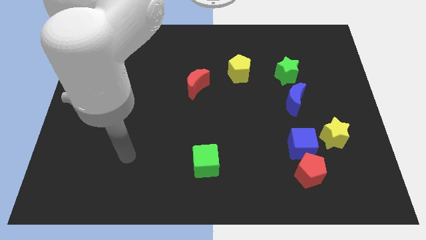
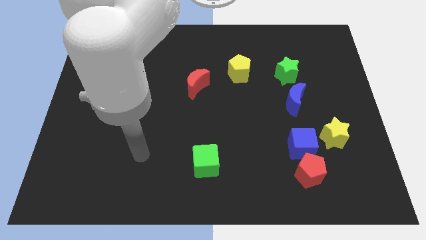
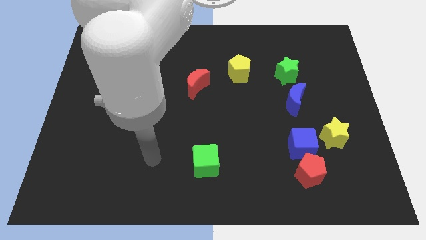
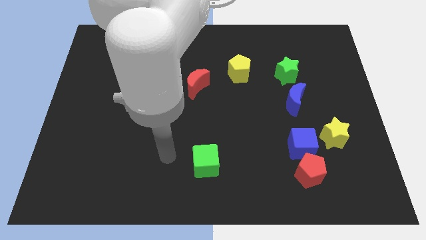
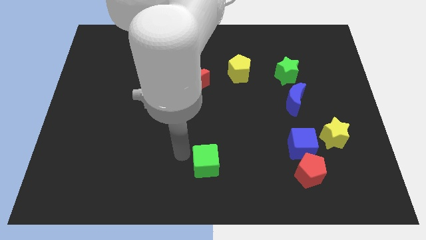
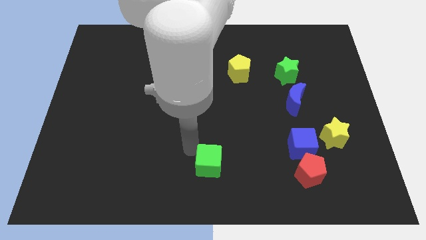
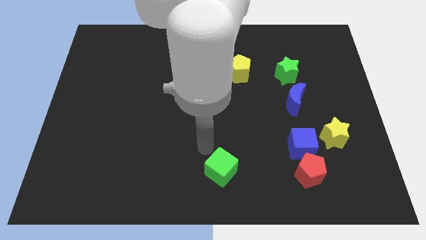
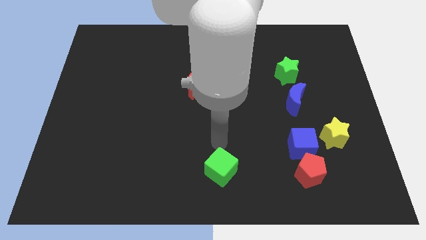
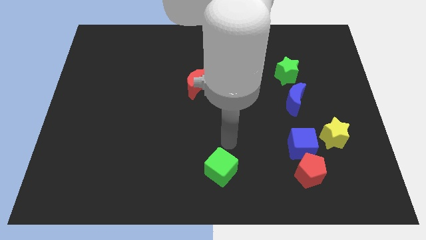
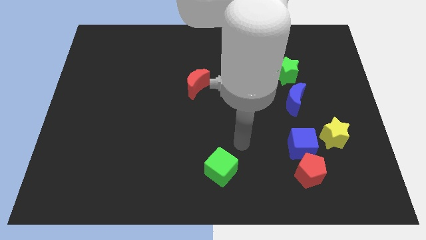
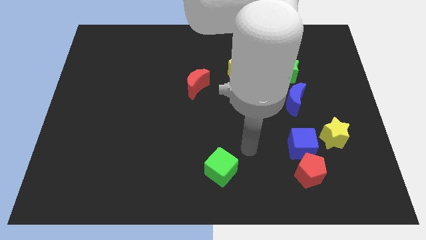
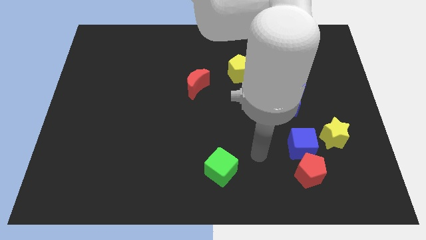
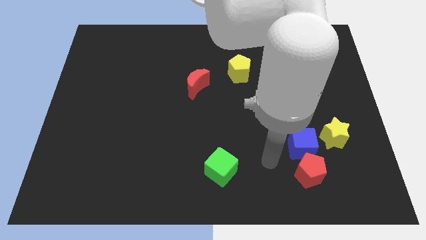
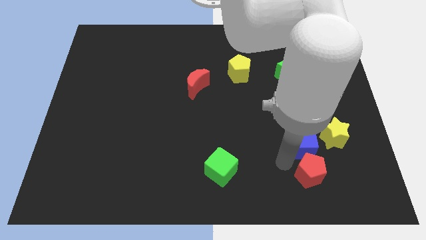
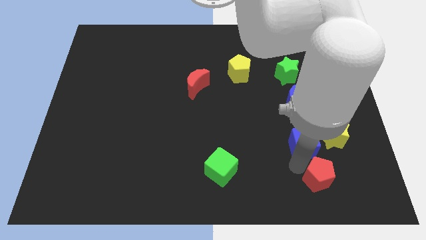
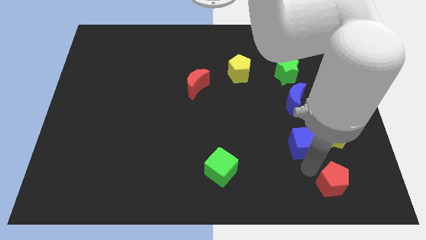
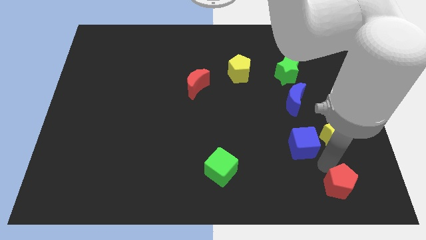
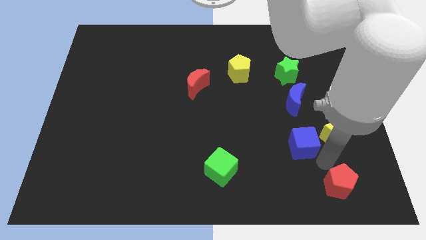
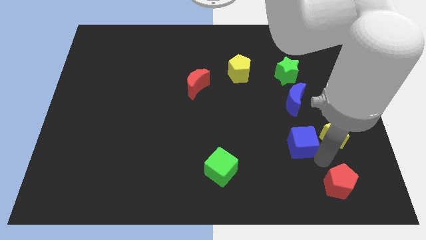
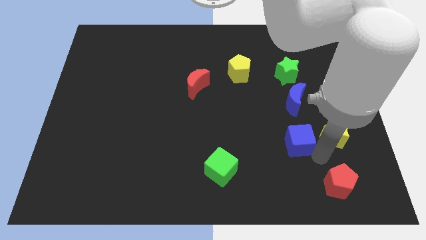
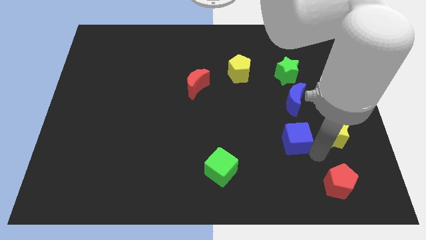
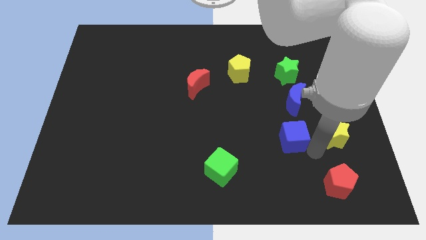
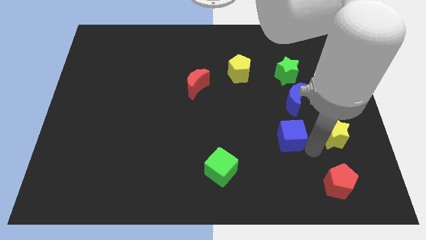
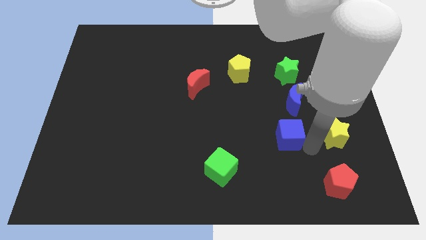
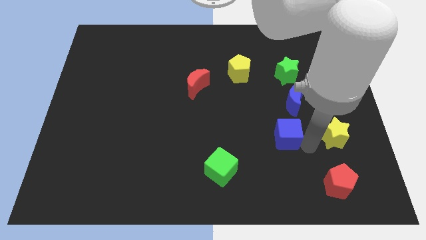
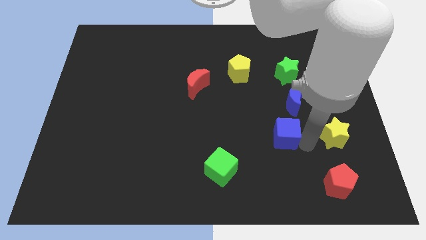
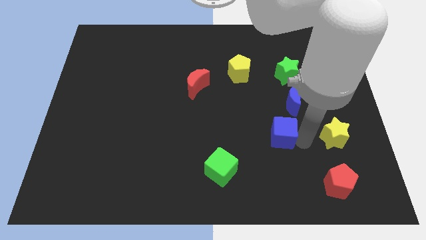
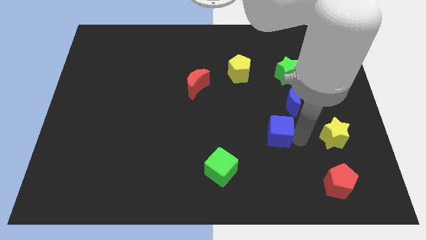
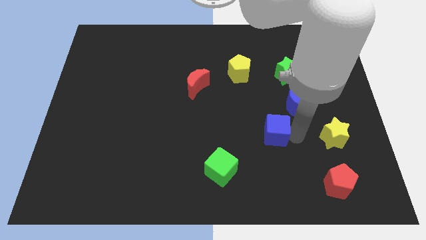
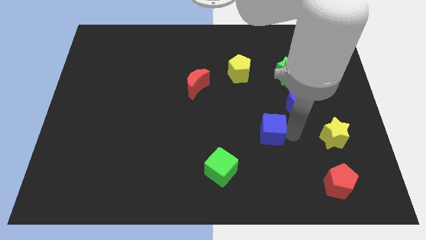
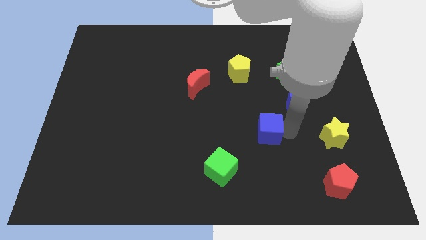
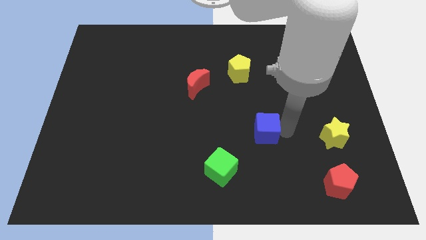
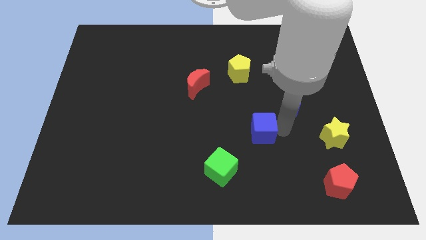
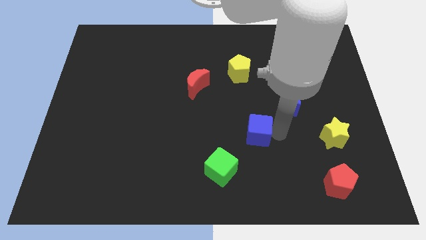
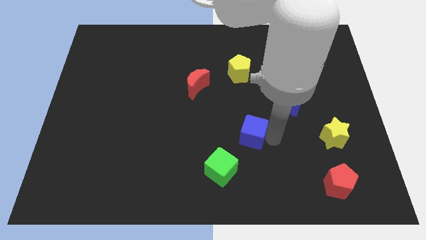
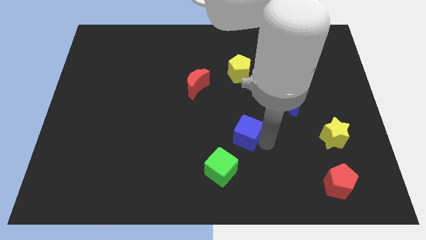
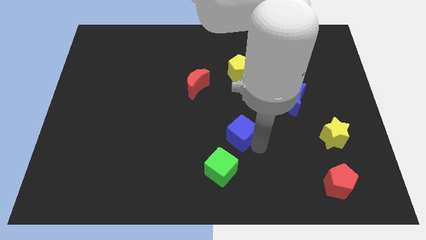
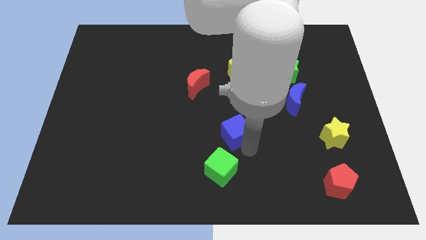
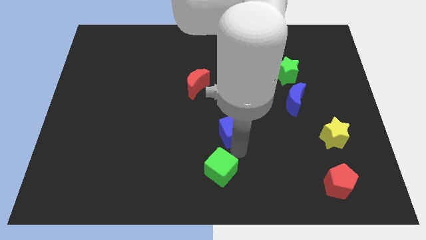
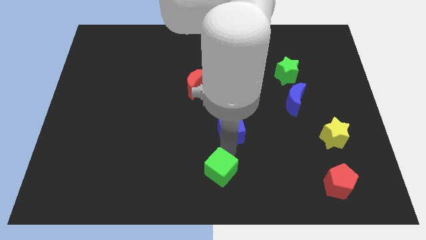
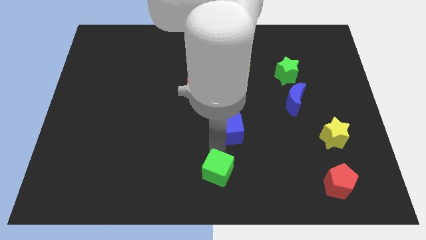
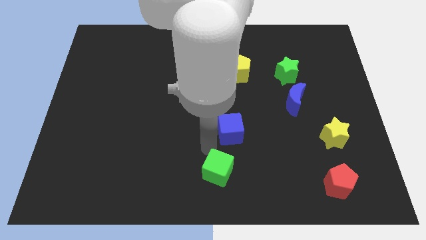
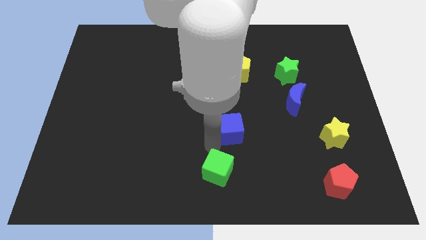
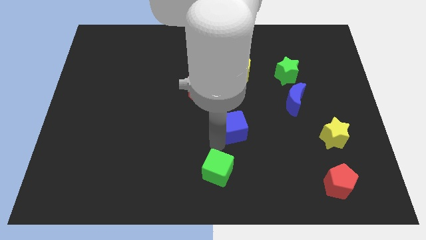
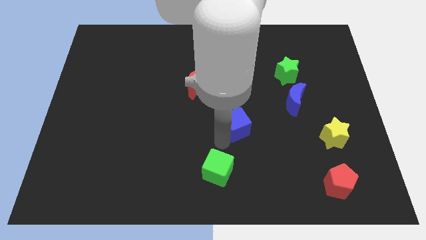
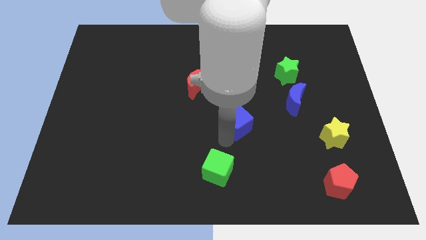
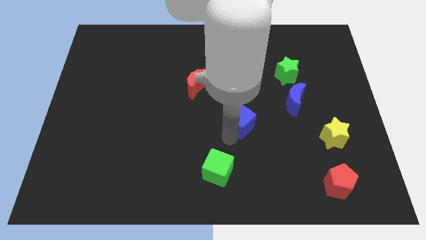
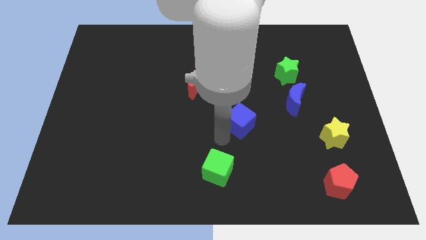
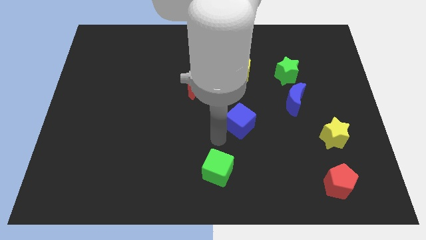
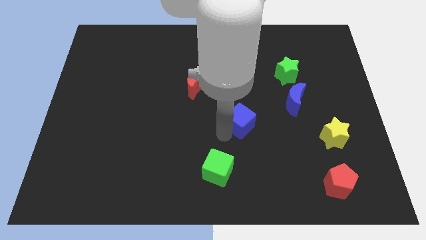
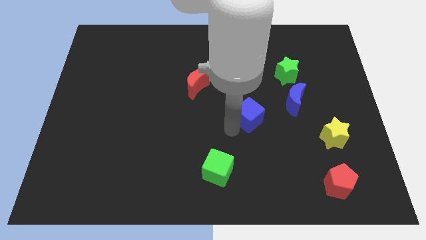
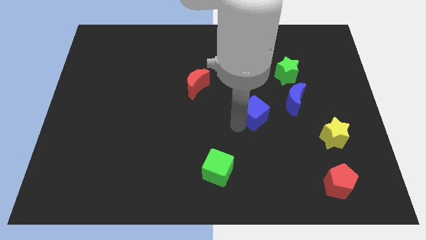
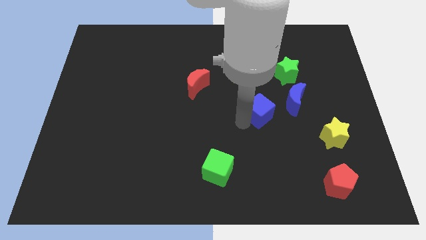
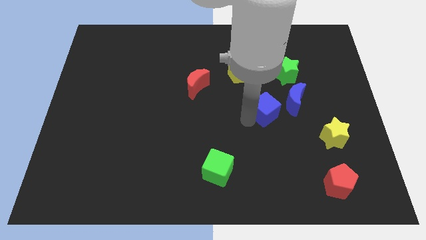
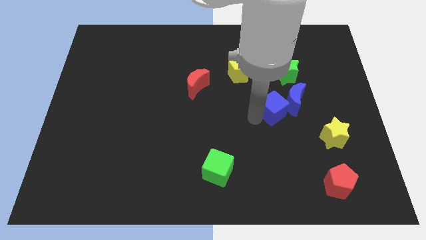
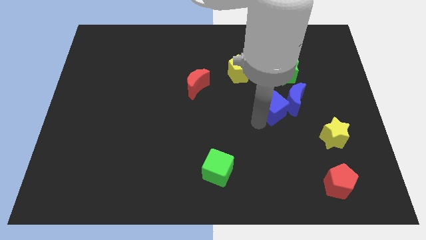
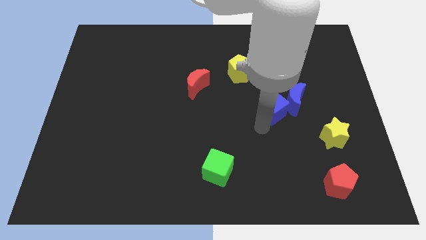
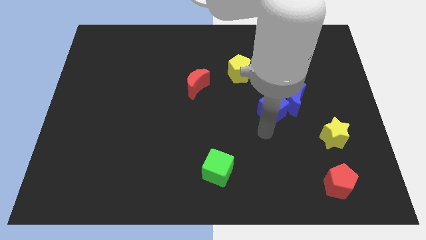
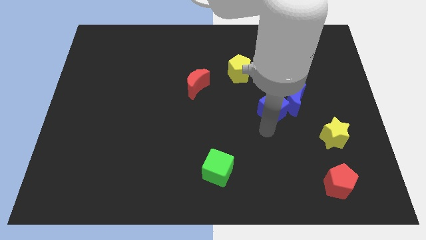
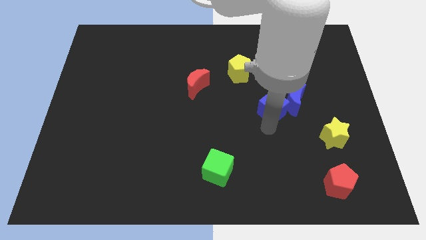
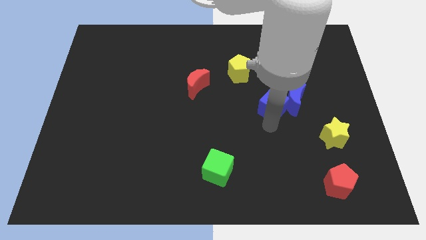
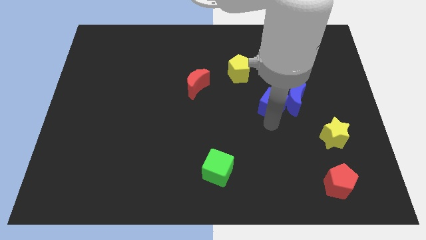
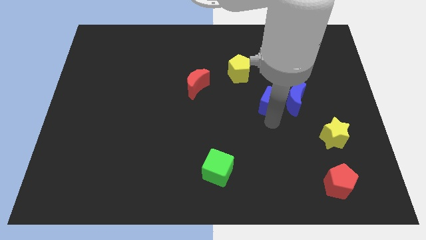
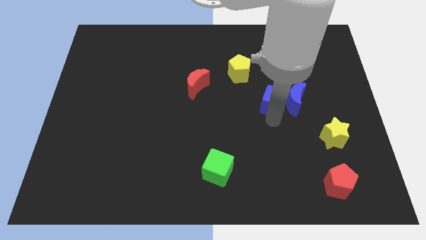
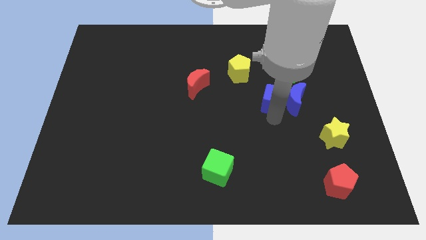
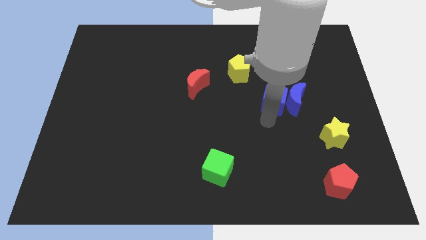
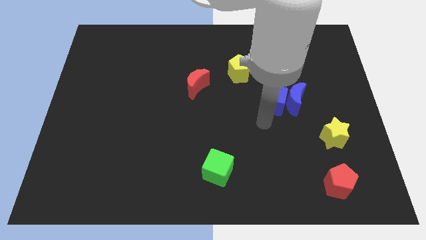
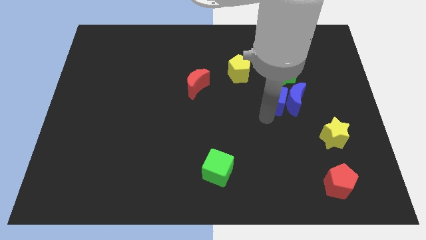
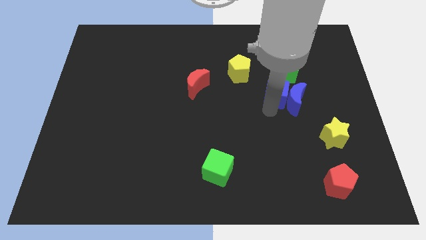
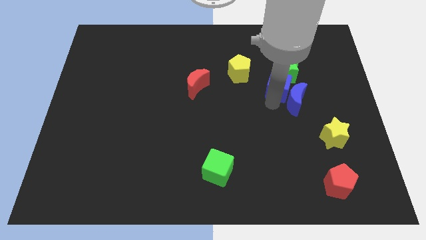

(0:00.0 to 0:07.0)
push the blue cube close to the green star
